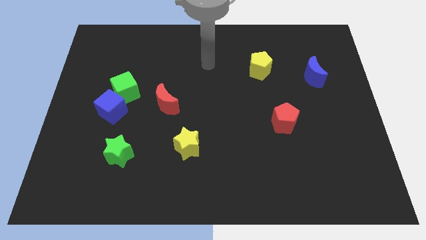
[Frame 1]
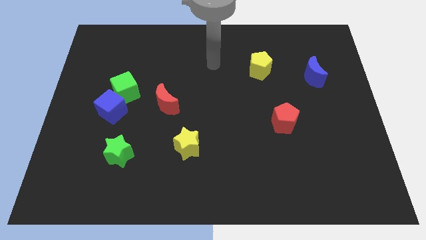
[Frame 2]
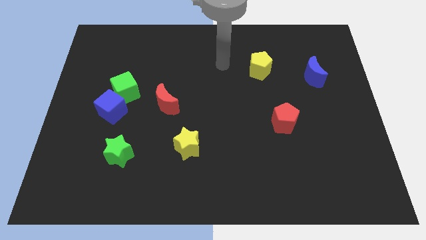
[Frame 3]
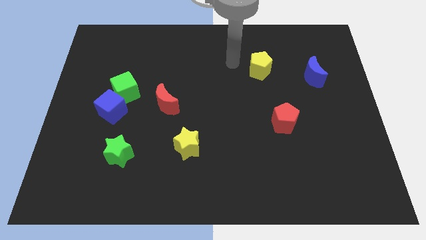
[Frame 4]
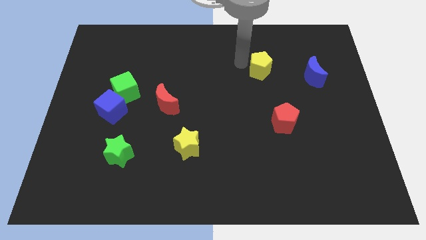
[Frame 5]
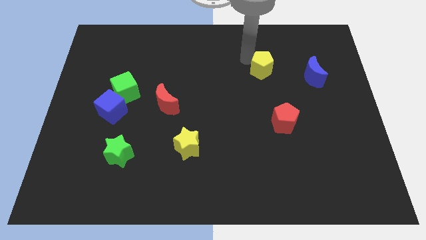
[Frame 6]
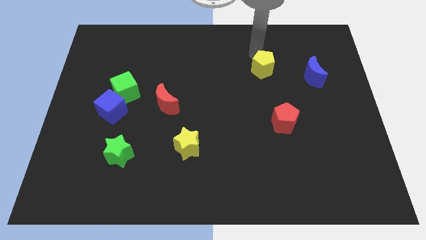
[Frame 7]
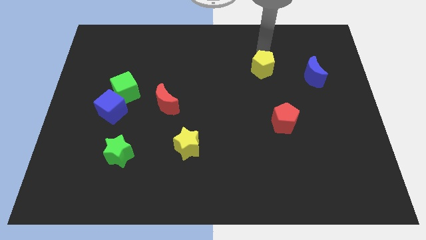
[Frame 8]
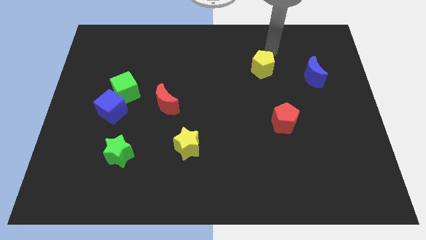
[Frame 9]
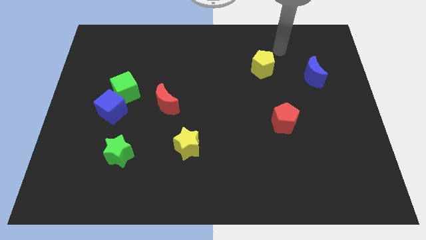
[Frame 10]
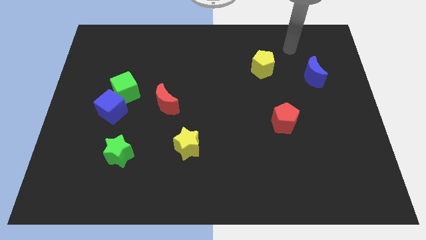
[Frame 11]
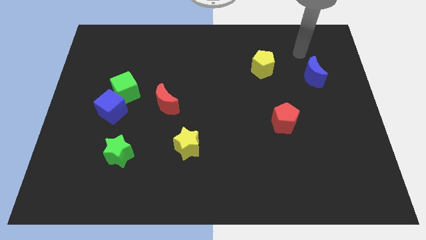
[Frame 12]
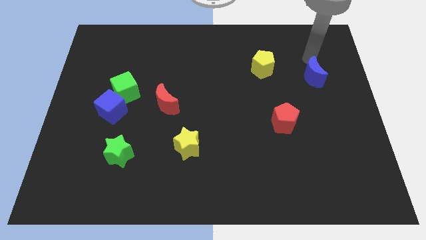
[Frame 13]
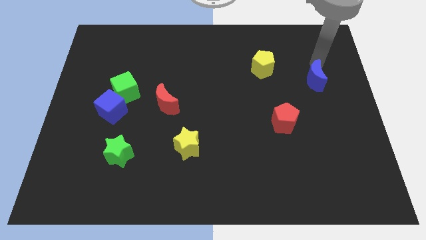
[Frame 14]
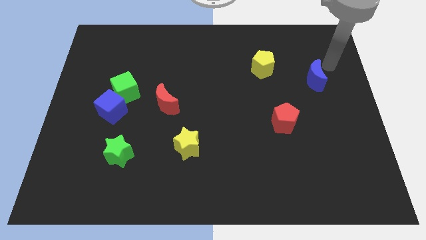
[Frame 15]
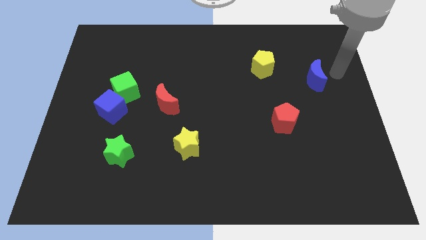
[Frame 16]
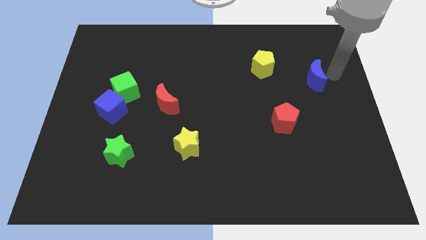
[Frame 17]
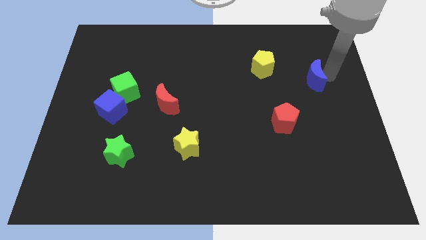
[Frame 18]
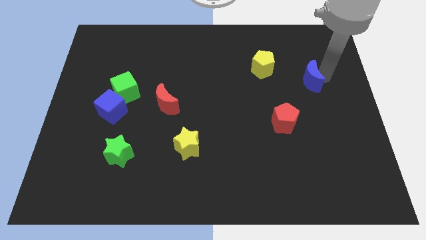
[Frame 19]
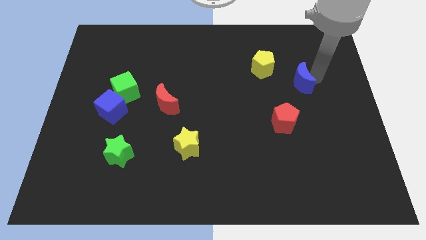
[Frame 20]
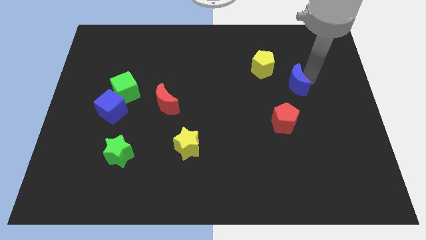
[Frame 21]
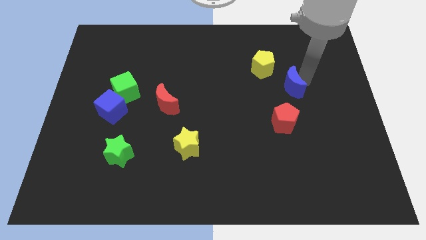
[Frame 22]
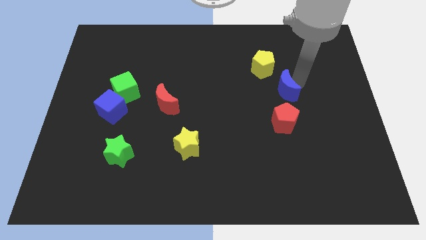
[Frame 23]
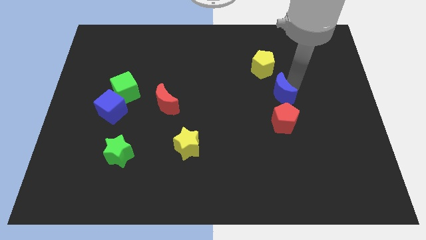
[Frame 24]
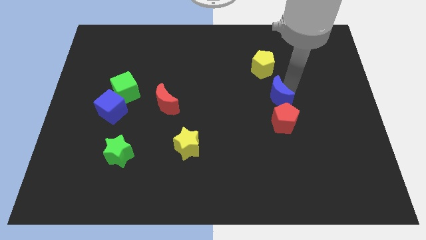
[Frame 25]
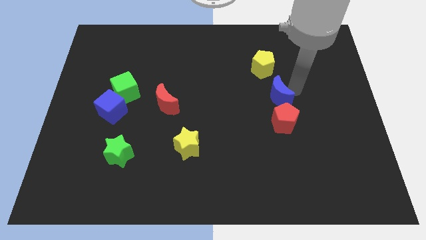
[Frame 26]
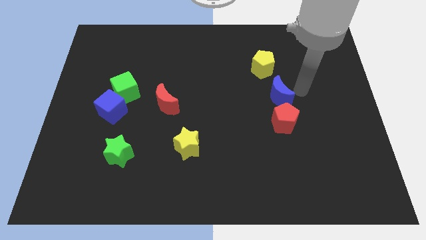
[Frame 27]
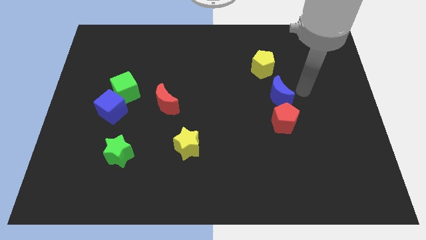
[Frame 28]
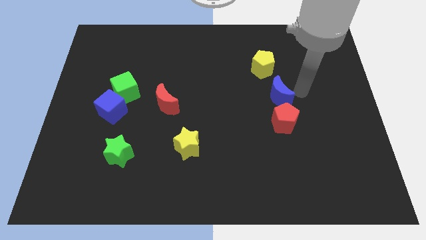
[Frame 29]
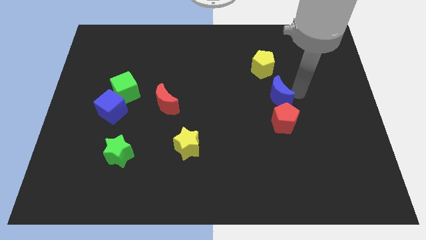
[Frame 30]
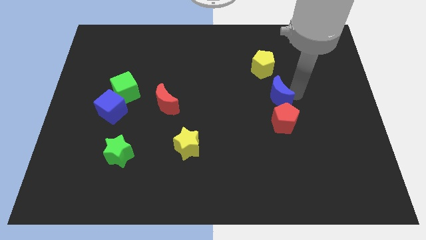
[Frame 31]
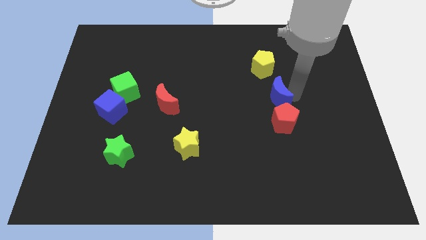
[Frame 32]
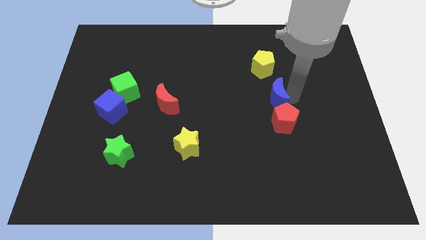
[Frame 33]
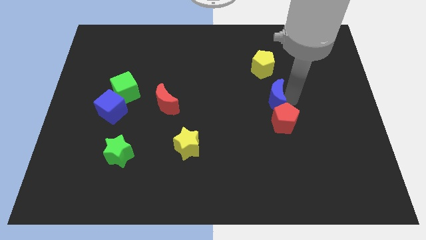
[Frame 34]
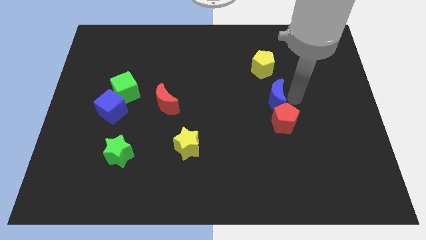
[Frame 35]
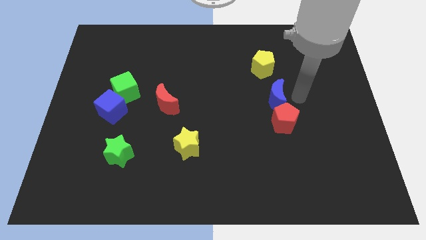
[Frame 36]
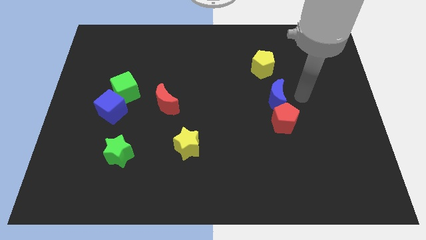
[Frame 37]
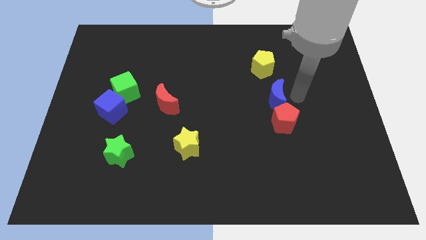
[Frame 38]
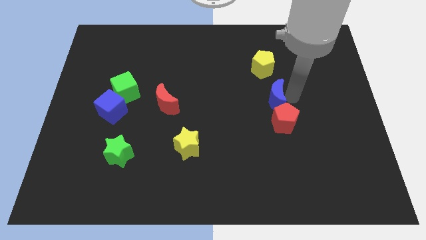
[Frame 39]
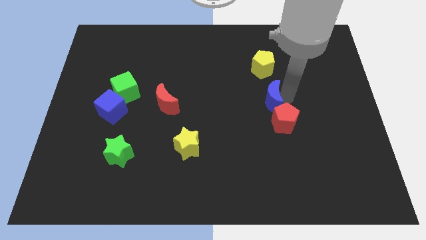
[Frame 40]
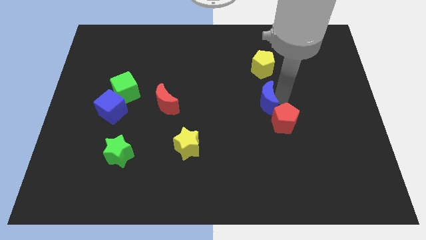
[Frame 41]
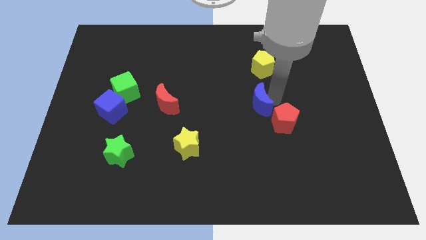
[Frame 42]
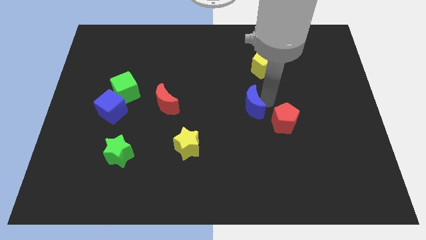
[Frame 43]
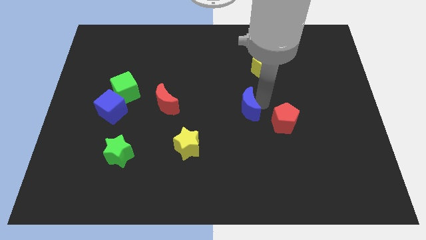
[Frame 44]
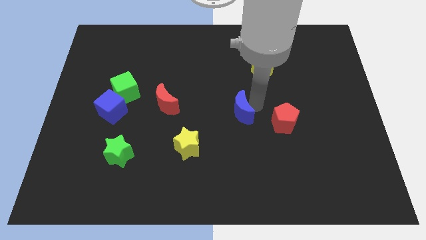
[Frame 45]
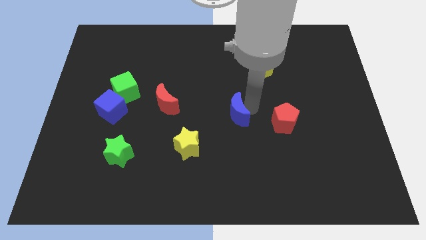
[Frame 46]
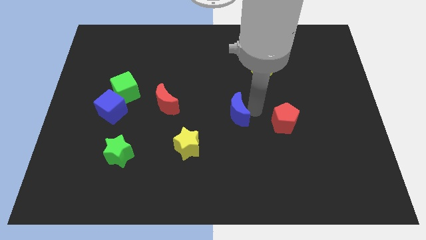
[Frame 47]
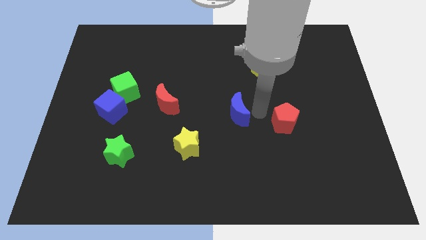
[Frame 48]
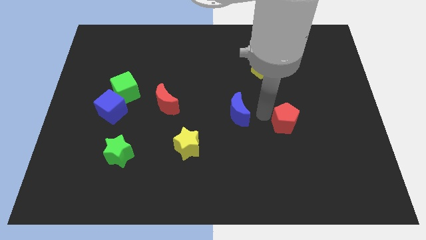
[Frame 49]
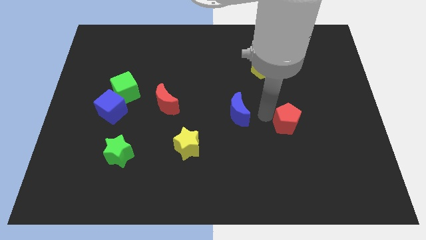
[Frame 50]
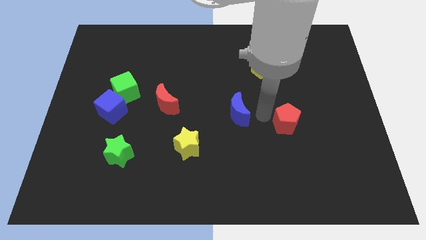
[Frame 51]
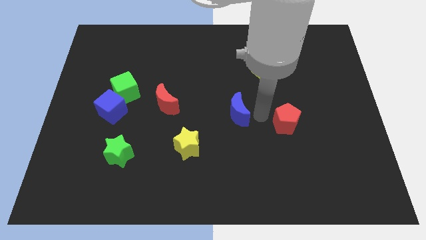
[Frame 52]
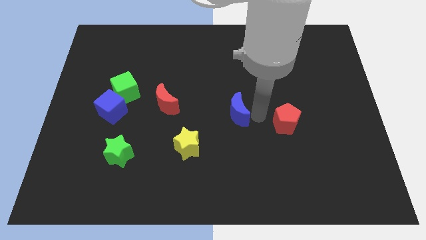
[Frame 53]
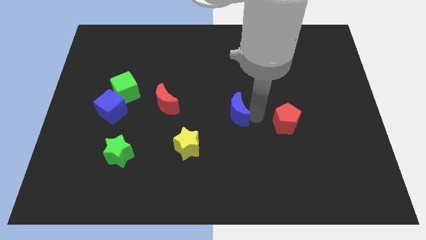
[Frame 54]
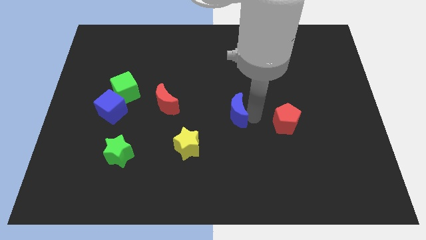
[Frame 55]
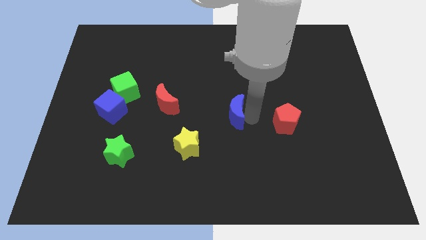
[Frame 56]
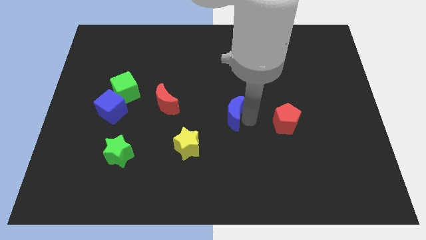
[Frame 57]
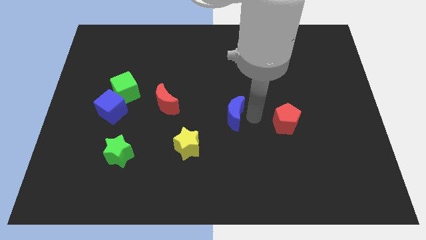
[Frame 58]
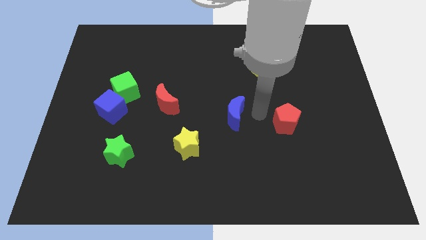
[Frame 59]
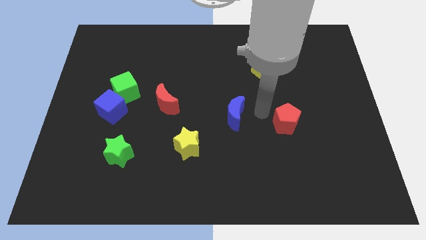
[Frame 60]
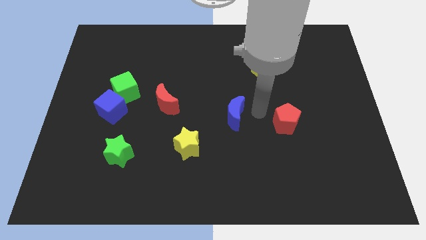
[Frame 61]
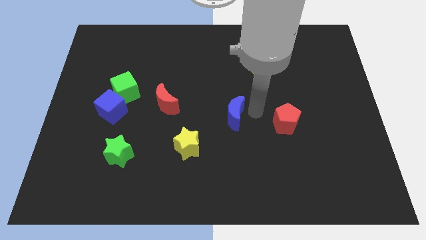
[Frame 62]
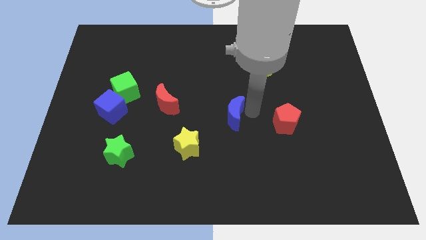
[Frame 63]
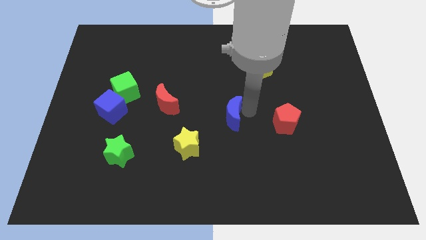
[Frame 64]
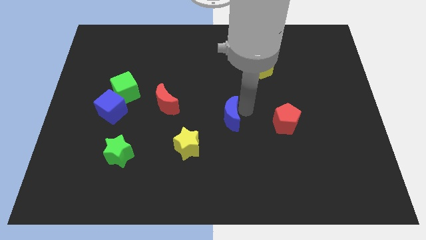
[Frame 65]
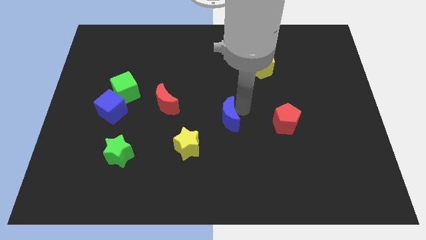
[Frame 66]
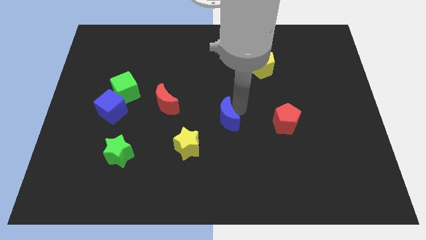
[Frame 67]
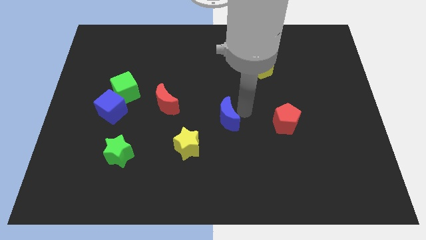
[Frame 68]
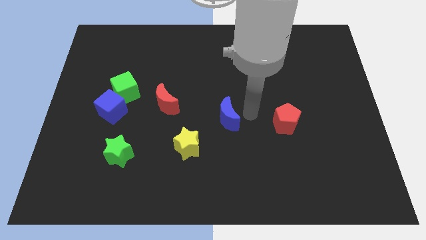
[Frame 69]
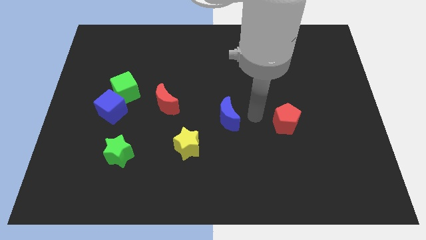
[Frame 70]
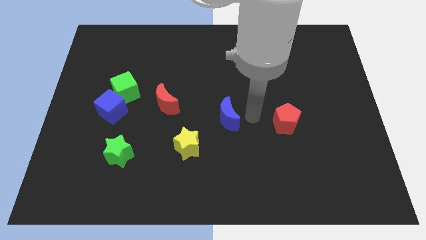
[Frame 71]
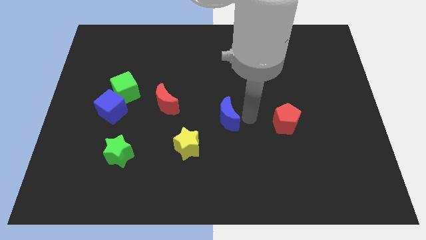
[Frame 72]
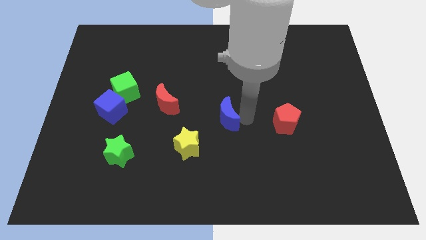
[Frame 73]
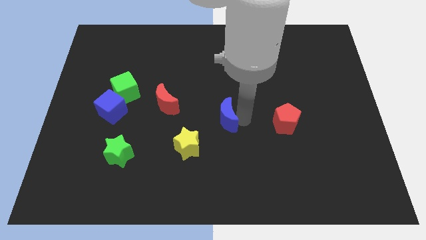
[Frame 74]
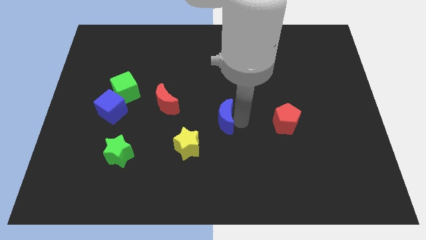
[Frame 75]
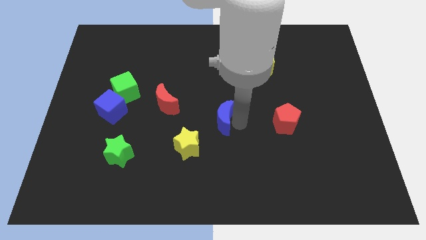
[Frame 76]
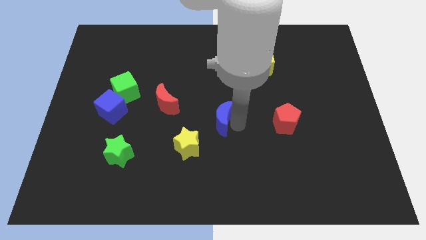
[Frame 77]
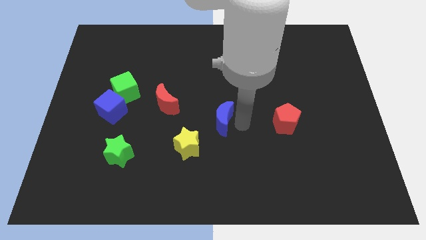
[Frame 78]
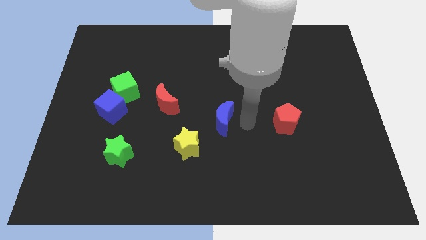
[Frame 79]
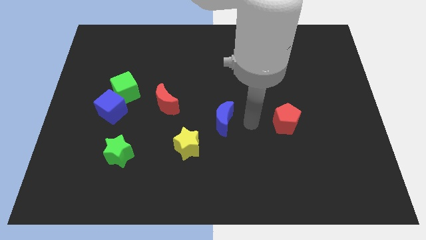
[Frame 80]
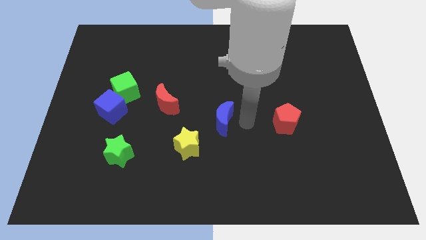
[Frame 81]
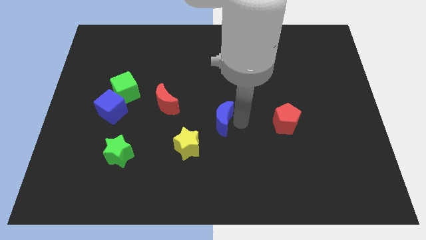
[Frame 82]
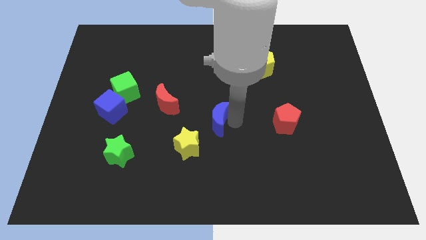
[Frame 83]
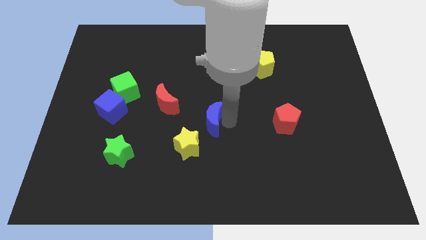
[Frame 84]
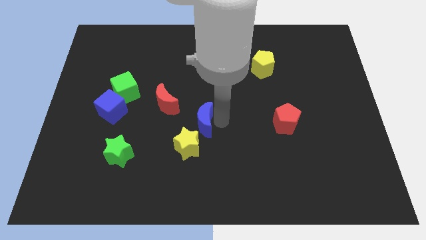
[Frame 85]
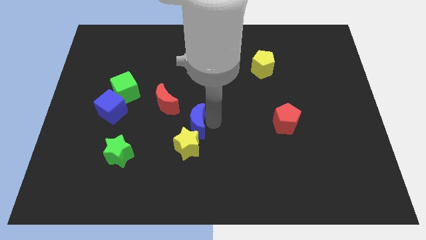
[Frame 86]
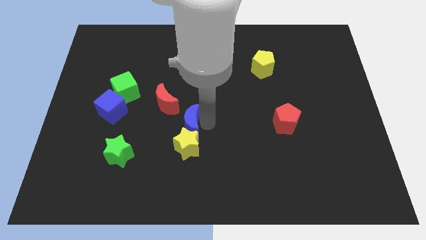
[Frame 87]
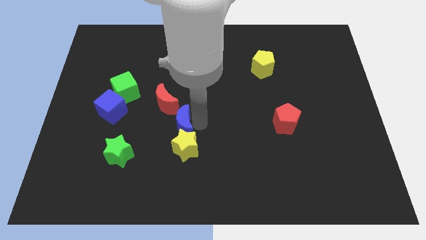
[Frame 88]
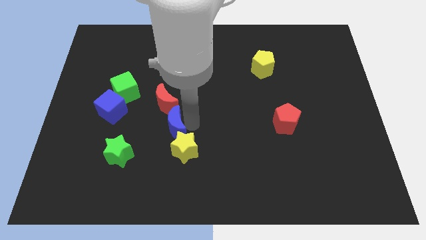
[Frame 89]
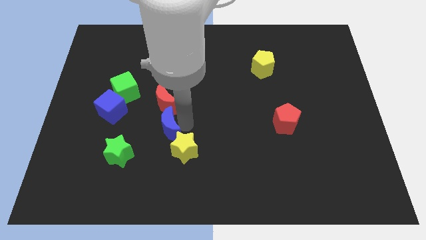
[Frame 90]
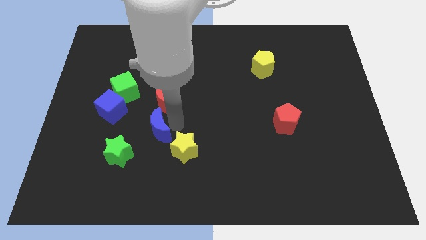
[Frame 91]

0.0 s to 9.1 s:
push the blue moon left of the yellow star
